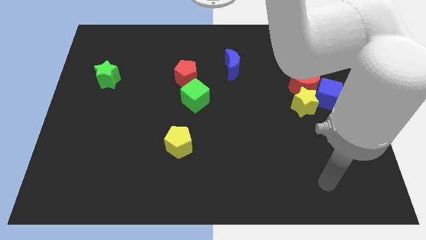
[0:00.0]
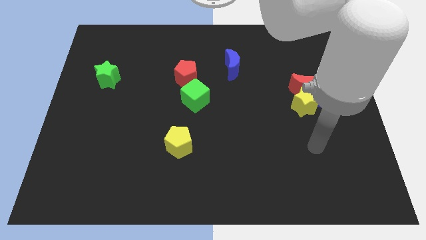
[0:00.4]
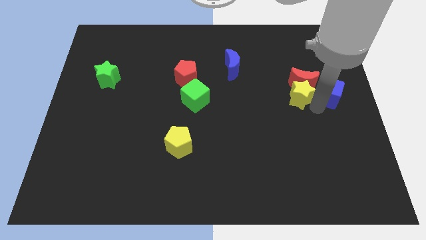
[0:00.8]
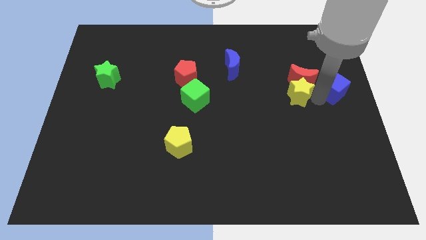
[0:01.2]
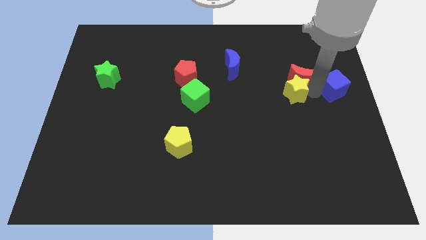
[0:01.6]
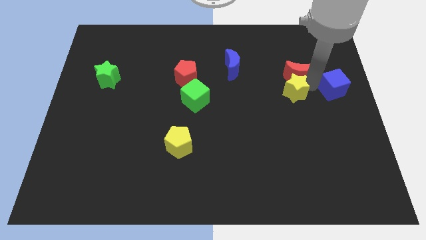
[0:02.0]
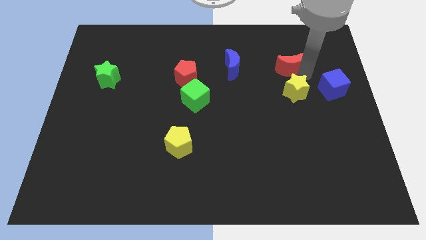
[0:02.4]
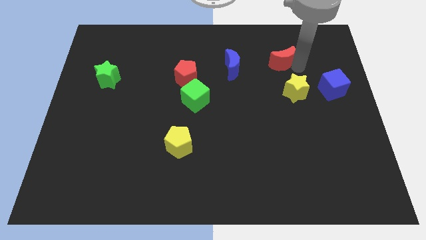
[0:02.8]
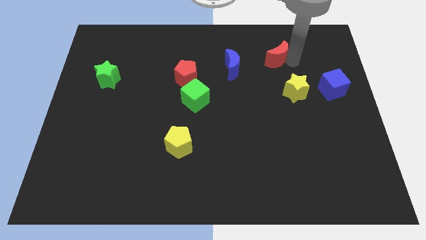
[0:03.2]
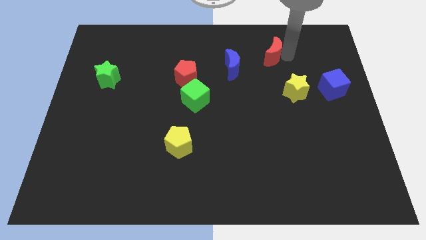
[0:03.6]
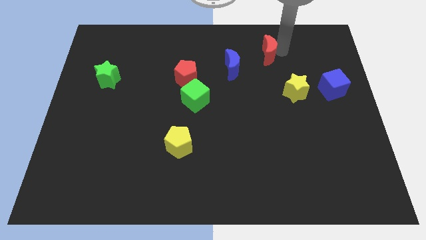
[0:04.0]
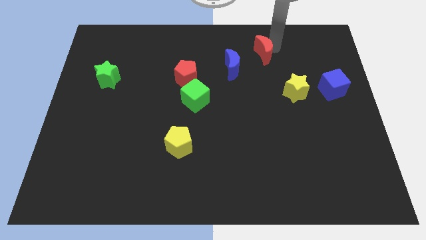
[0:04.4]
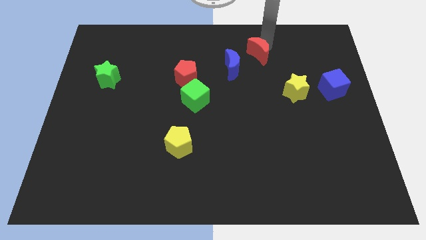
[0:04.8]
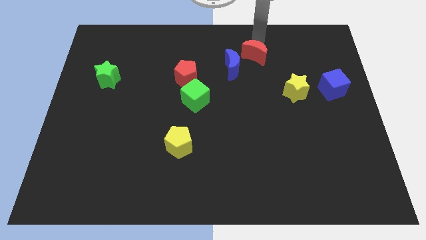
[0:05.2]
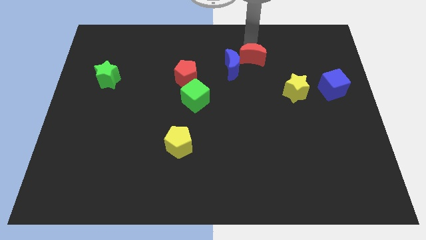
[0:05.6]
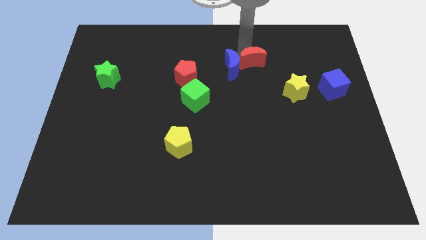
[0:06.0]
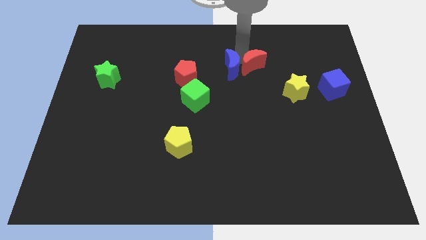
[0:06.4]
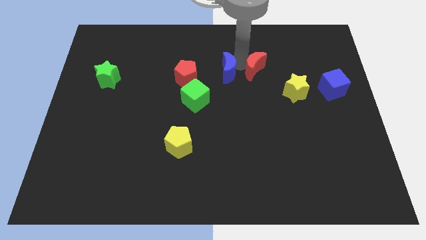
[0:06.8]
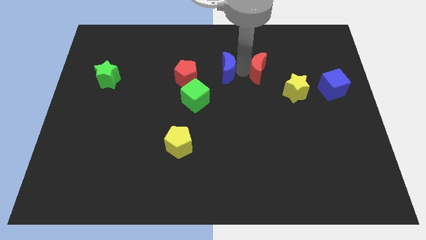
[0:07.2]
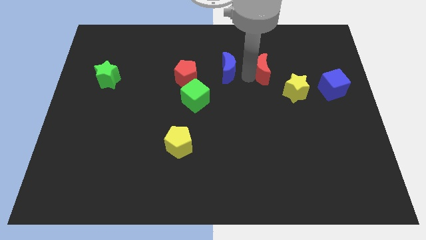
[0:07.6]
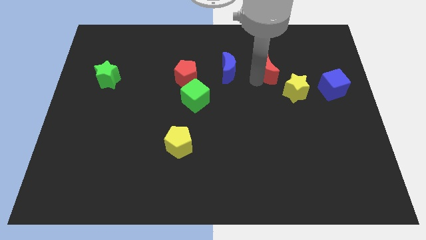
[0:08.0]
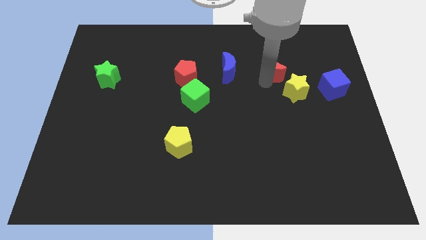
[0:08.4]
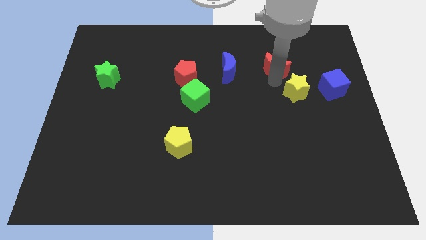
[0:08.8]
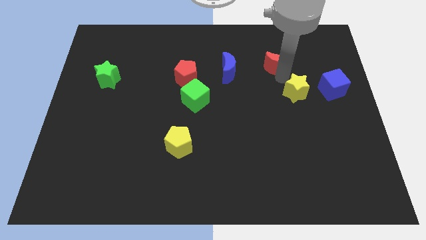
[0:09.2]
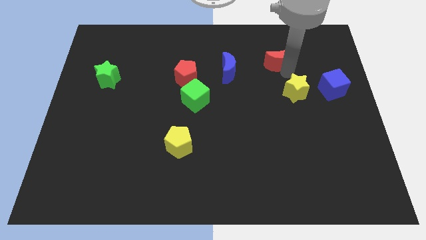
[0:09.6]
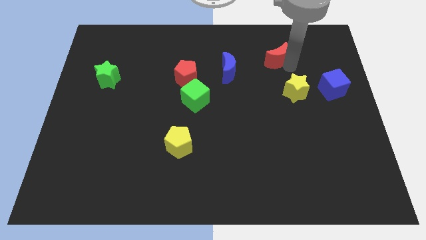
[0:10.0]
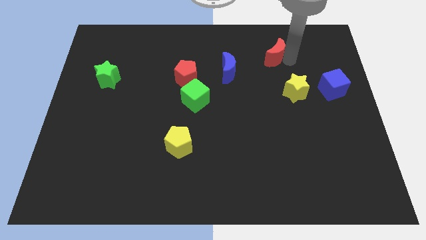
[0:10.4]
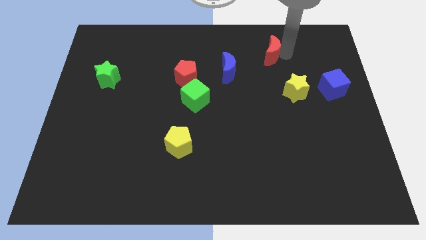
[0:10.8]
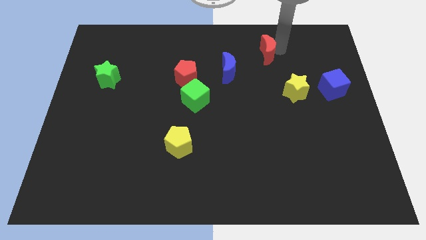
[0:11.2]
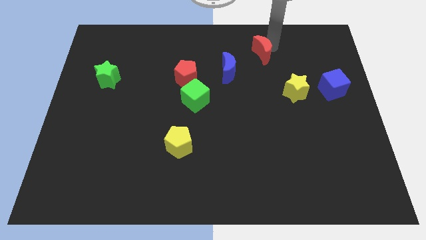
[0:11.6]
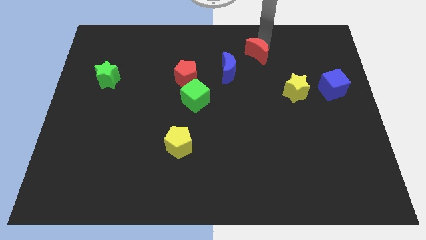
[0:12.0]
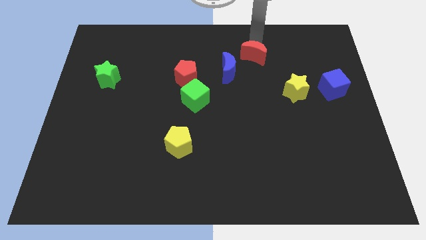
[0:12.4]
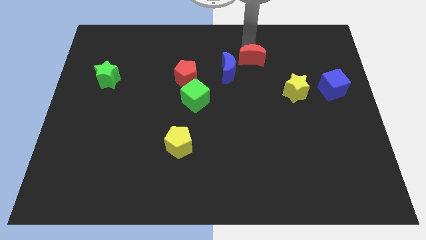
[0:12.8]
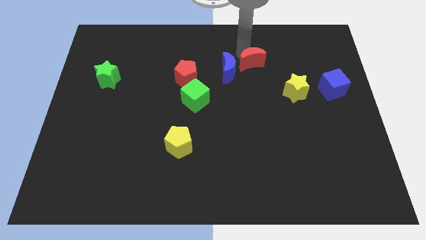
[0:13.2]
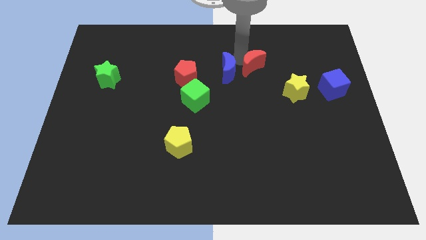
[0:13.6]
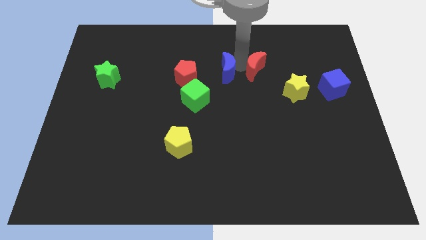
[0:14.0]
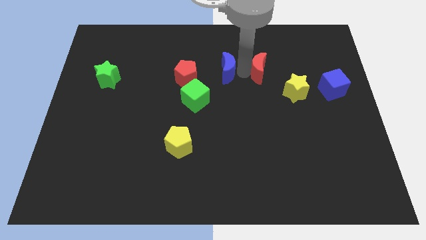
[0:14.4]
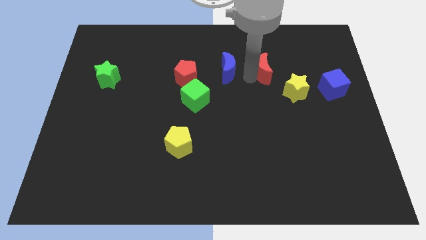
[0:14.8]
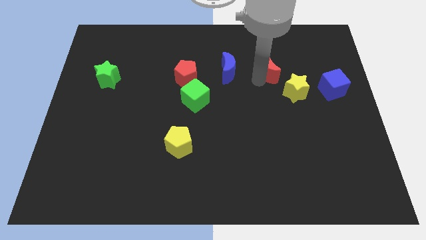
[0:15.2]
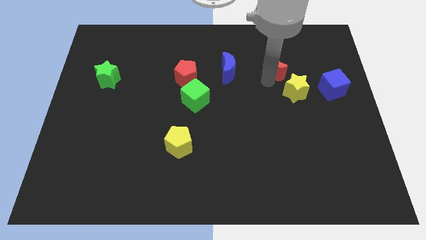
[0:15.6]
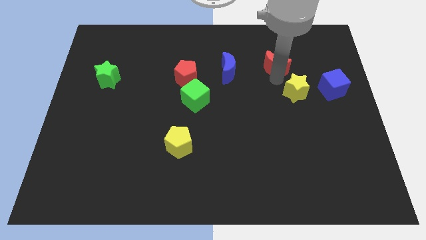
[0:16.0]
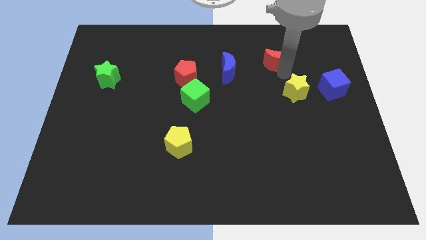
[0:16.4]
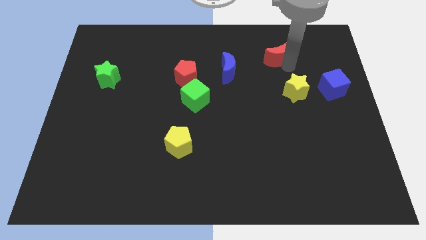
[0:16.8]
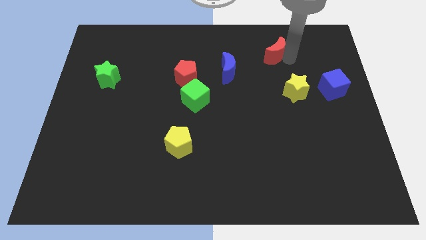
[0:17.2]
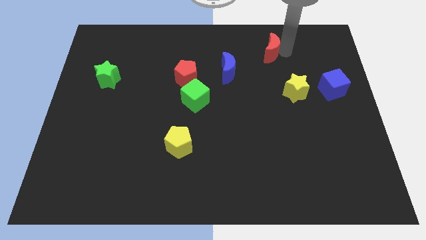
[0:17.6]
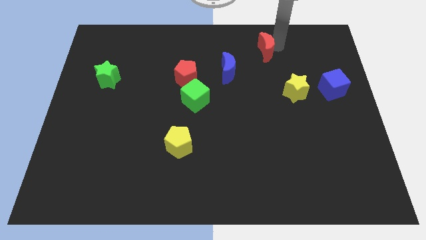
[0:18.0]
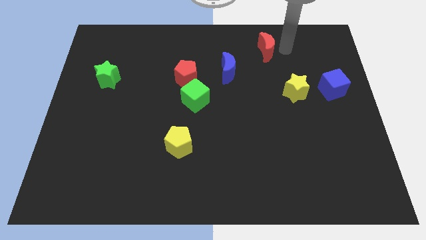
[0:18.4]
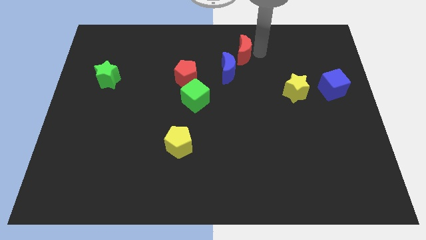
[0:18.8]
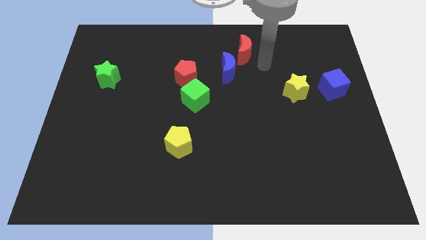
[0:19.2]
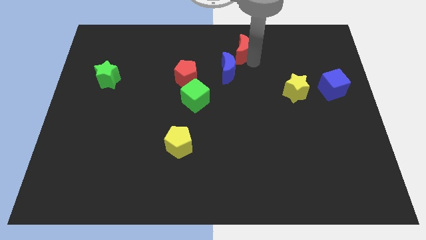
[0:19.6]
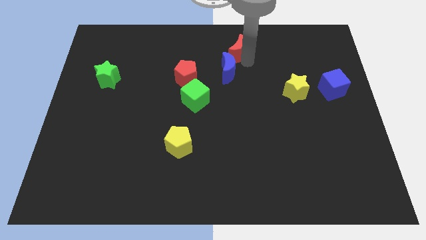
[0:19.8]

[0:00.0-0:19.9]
slide the red moon to the top
